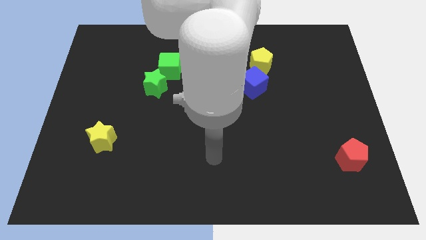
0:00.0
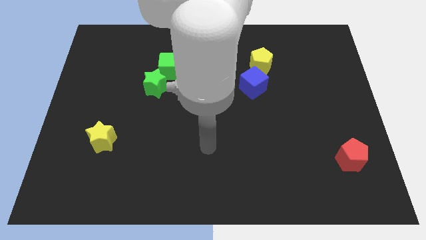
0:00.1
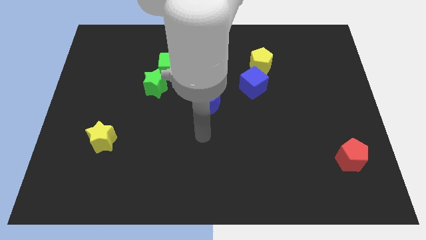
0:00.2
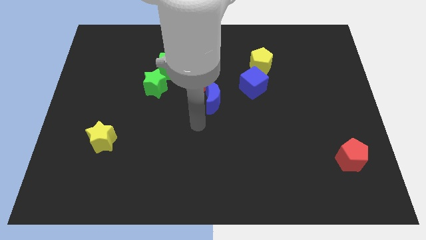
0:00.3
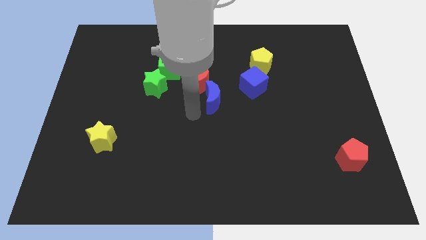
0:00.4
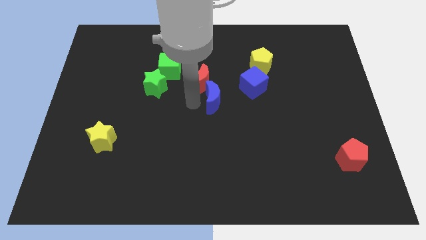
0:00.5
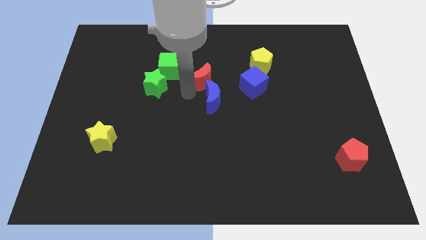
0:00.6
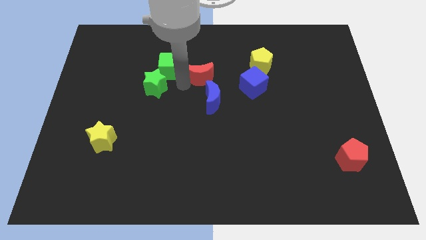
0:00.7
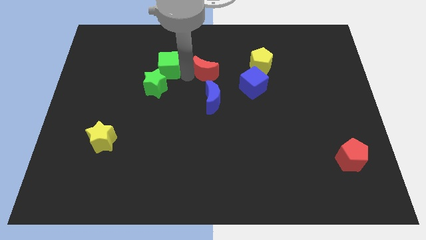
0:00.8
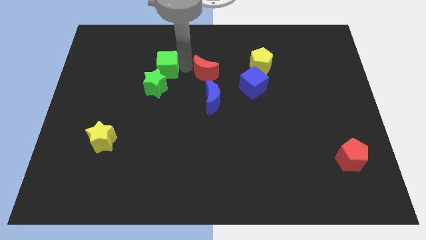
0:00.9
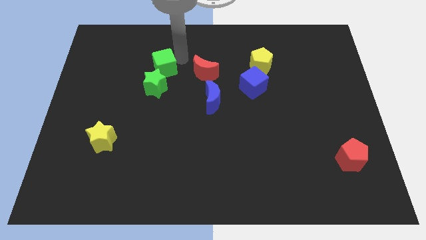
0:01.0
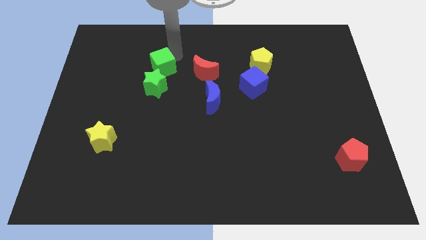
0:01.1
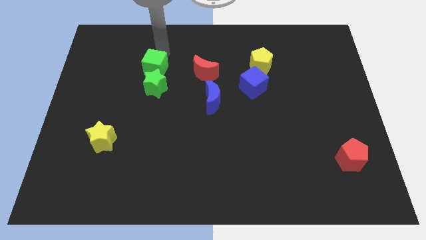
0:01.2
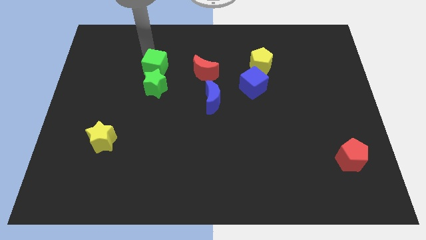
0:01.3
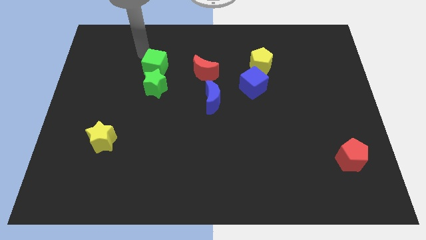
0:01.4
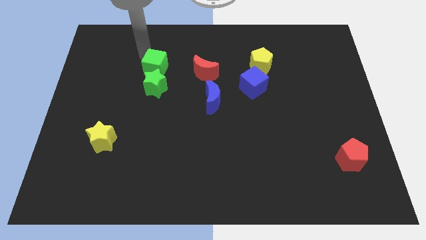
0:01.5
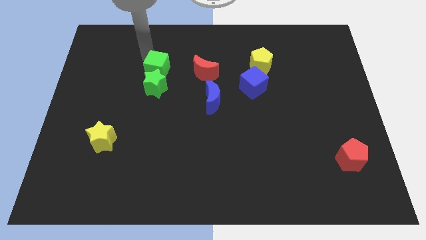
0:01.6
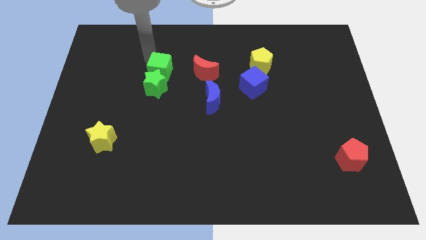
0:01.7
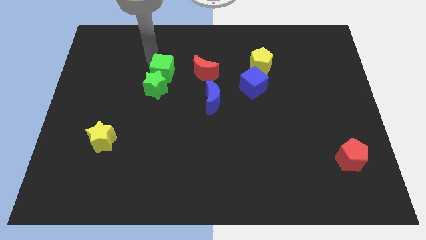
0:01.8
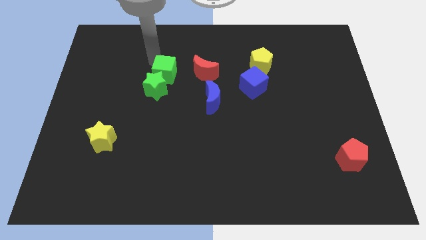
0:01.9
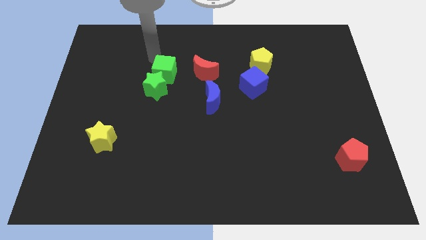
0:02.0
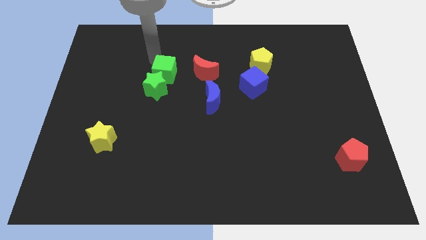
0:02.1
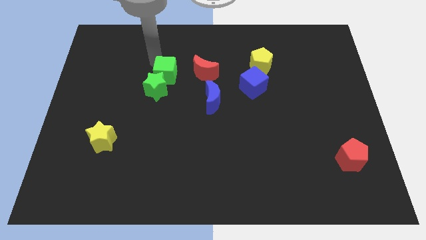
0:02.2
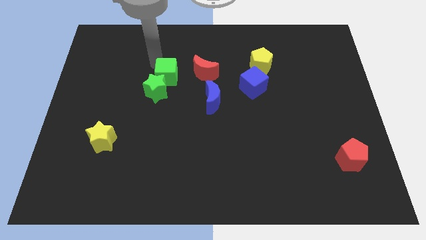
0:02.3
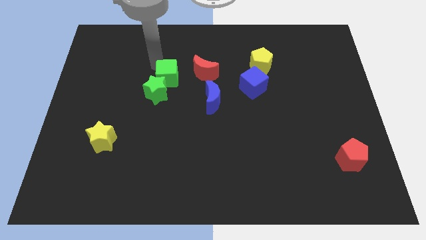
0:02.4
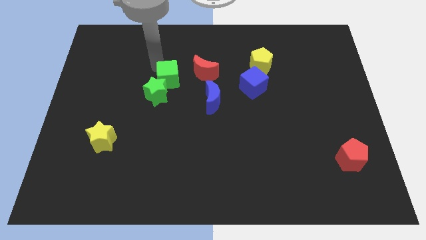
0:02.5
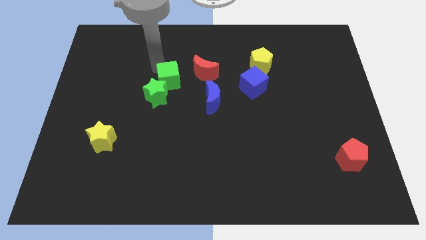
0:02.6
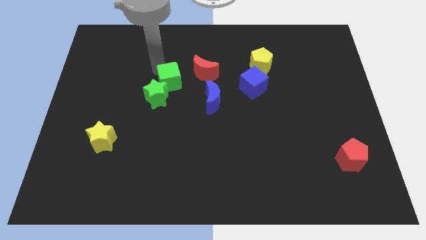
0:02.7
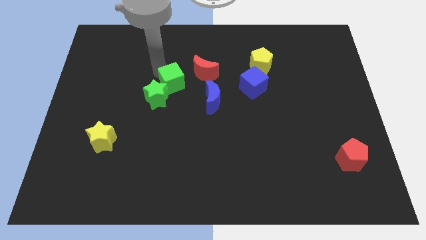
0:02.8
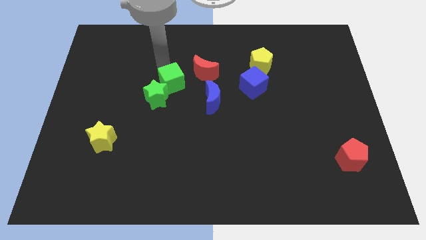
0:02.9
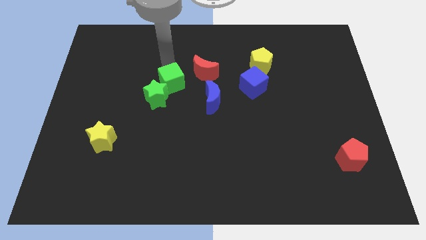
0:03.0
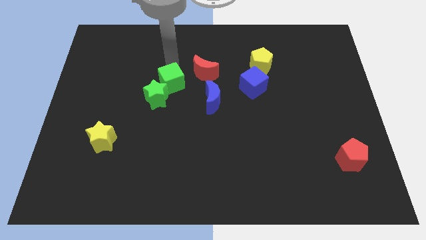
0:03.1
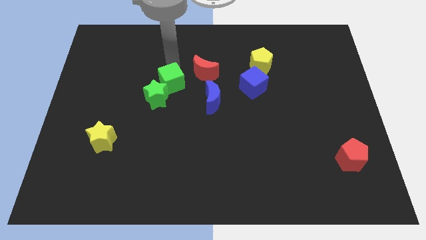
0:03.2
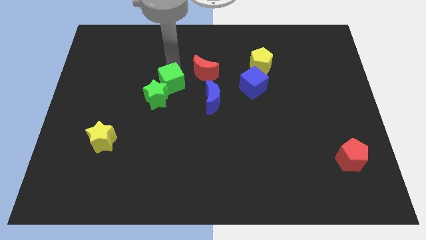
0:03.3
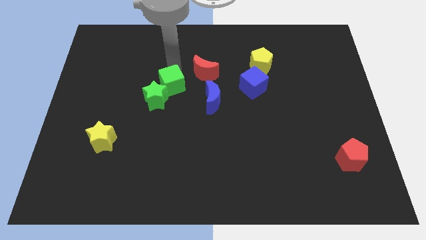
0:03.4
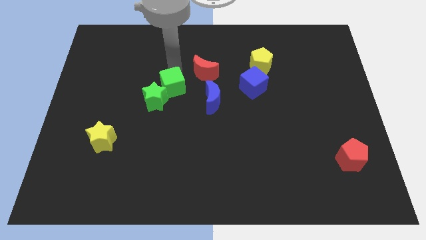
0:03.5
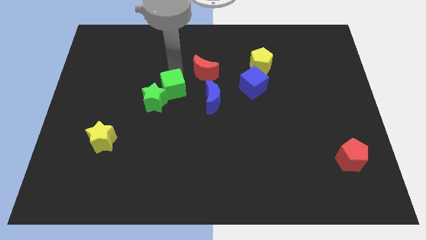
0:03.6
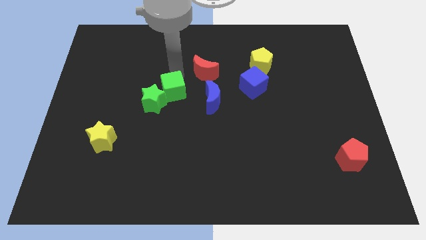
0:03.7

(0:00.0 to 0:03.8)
move the green cube a bit downwards

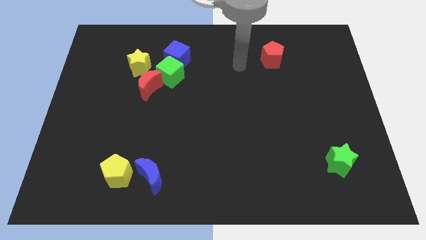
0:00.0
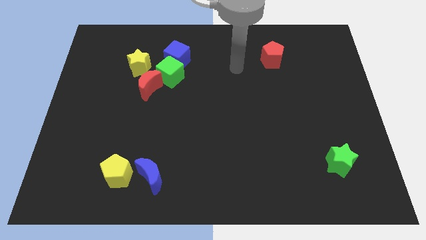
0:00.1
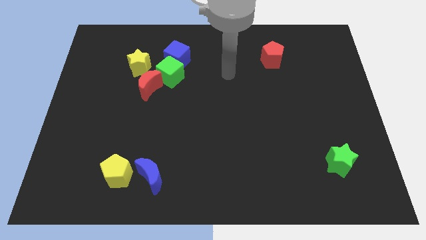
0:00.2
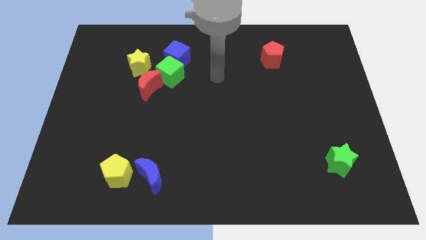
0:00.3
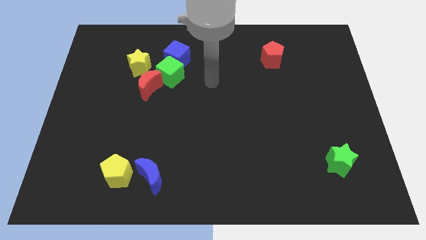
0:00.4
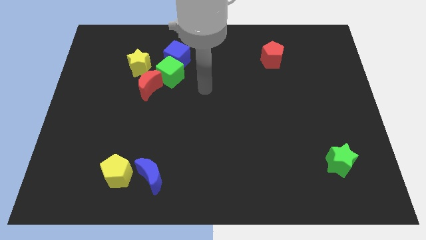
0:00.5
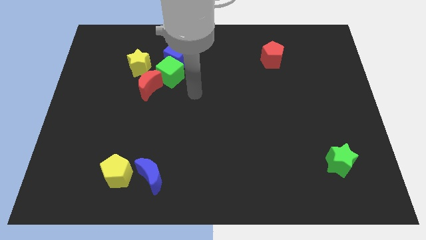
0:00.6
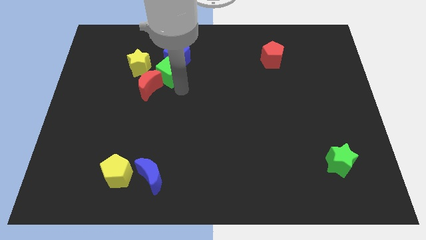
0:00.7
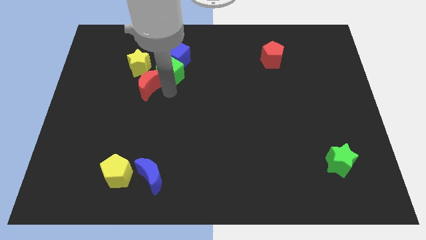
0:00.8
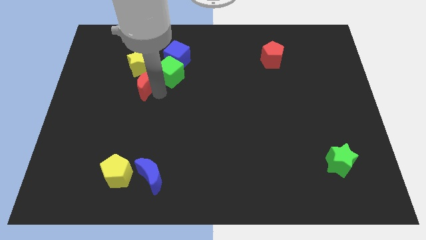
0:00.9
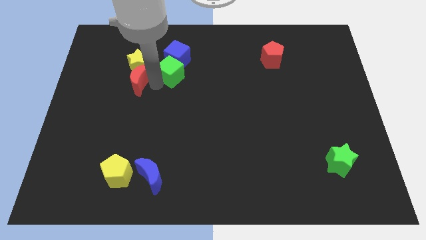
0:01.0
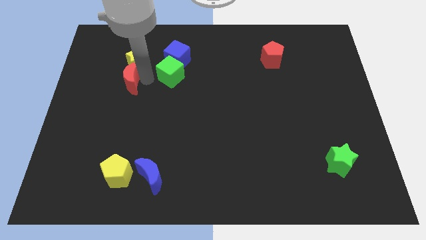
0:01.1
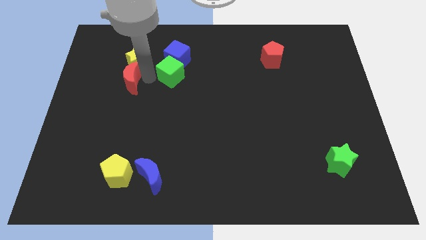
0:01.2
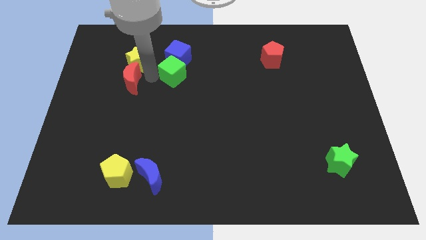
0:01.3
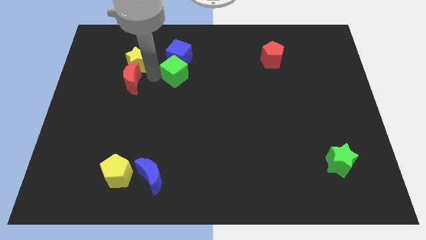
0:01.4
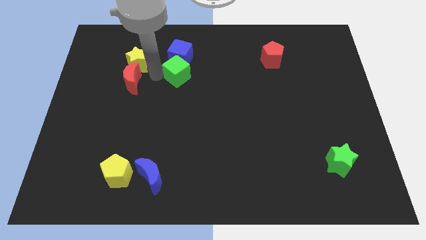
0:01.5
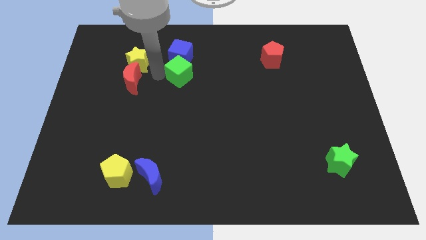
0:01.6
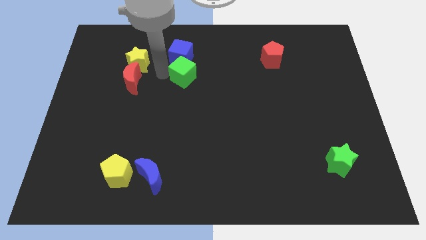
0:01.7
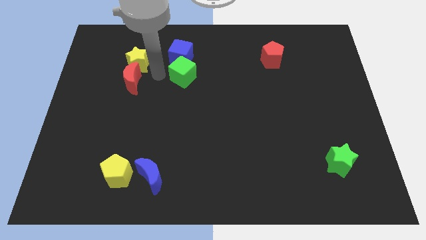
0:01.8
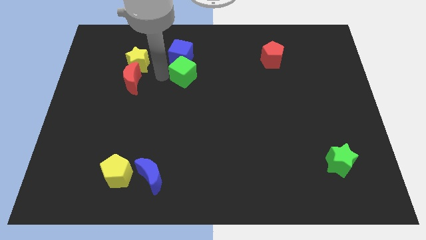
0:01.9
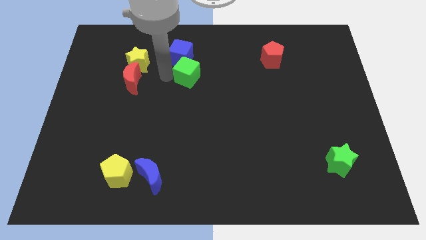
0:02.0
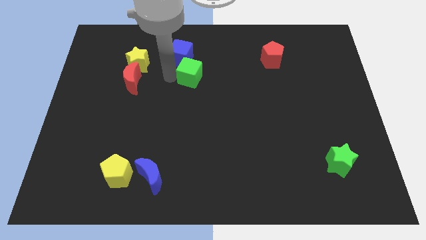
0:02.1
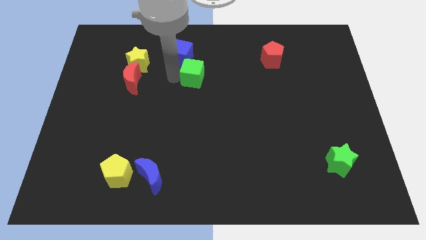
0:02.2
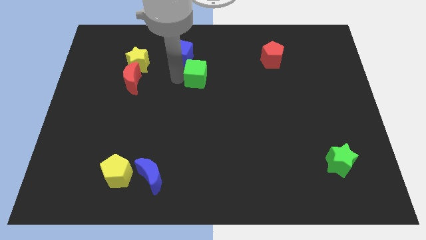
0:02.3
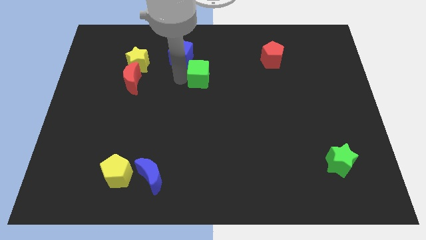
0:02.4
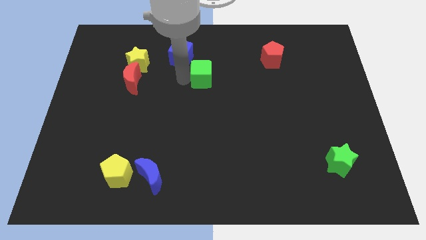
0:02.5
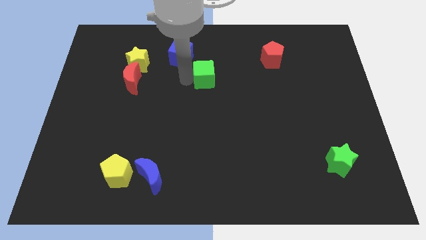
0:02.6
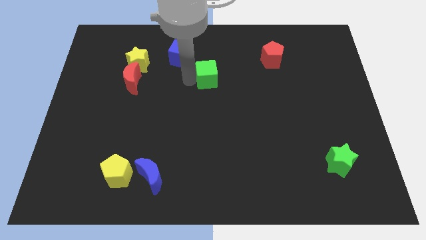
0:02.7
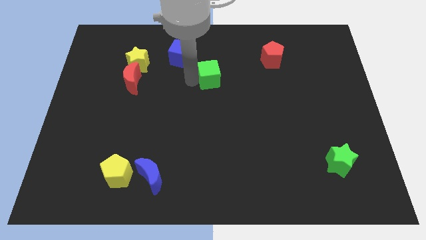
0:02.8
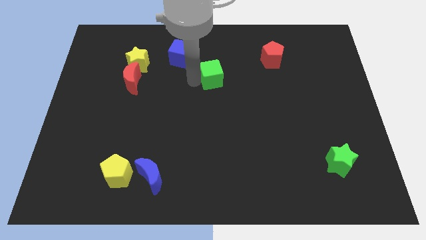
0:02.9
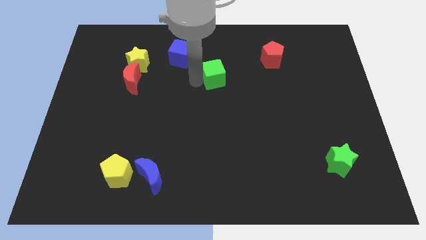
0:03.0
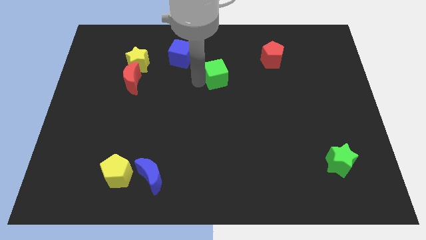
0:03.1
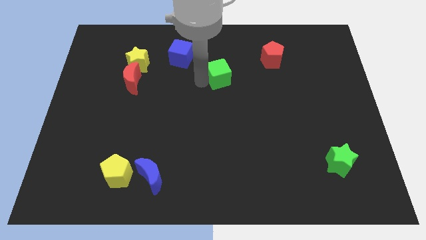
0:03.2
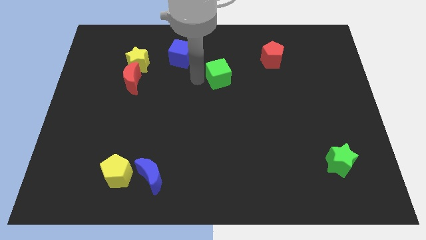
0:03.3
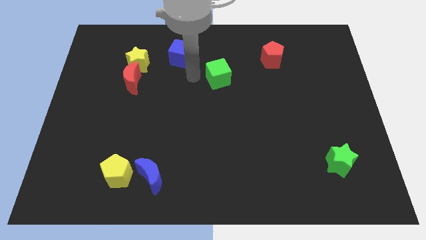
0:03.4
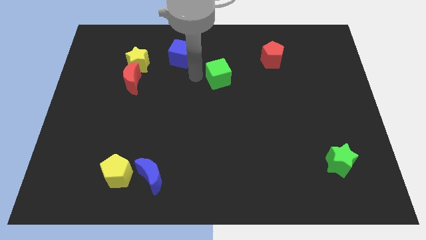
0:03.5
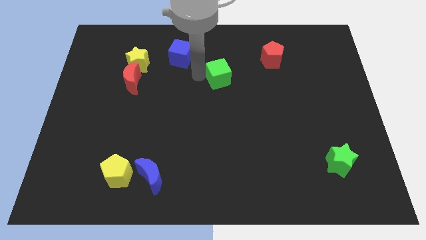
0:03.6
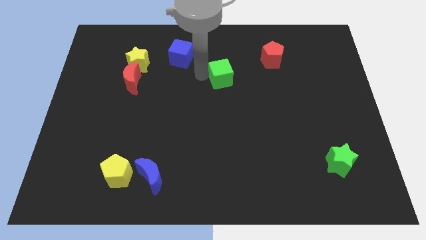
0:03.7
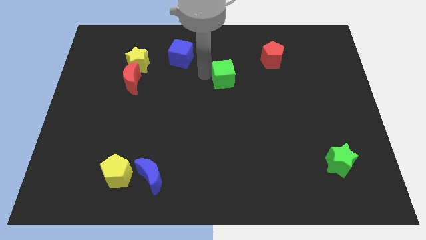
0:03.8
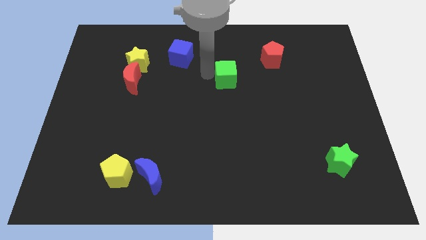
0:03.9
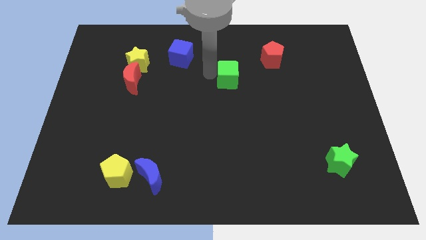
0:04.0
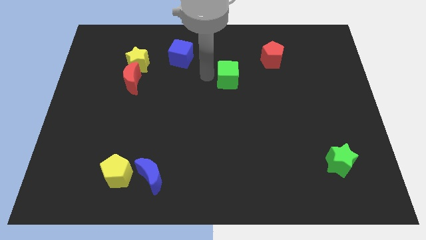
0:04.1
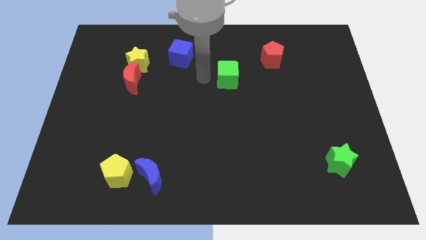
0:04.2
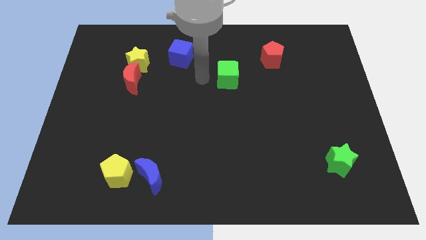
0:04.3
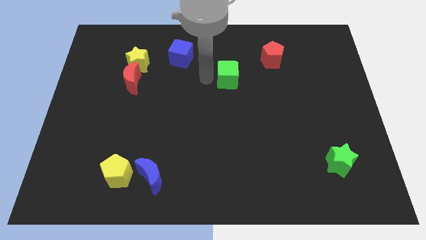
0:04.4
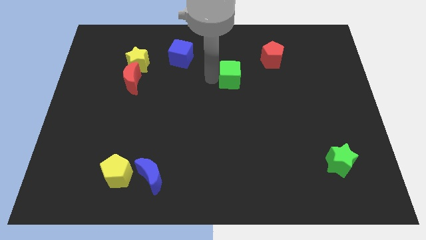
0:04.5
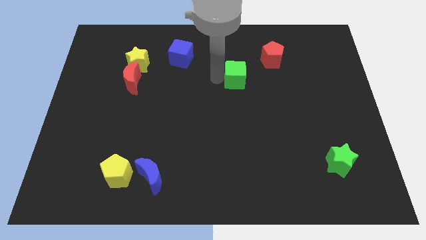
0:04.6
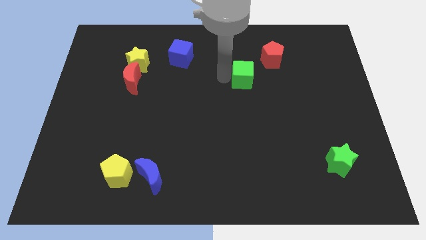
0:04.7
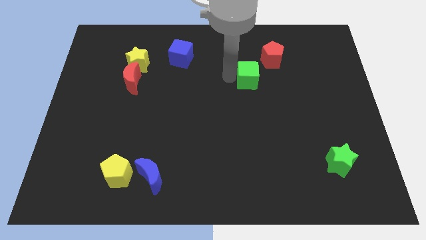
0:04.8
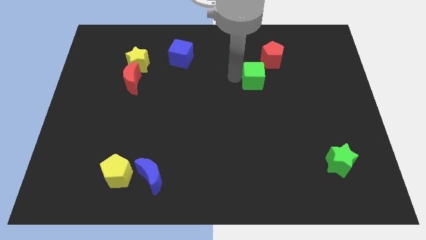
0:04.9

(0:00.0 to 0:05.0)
push the green cube to the right
